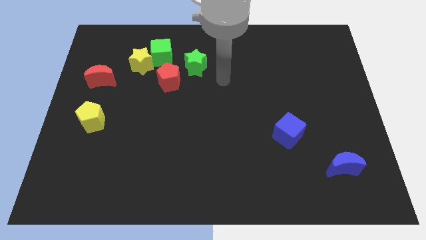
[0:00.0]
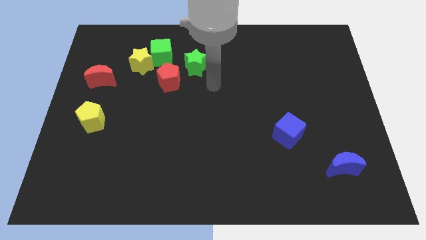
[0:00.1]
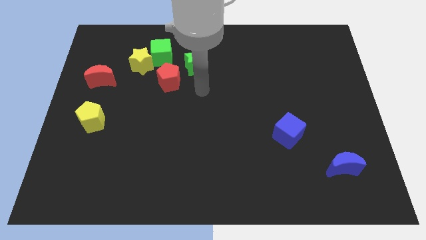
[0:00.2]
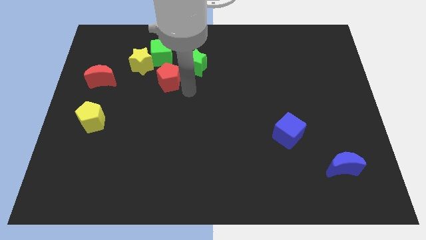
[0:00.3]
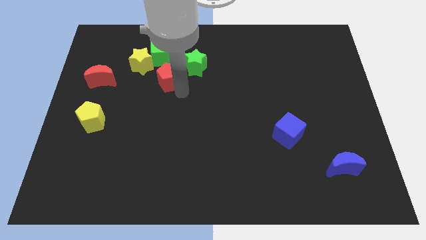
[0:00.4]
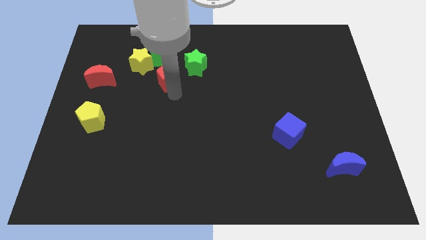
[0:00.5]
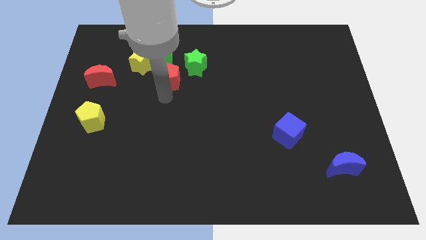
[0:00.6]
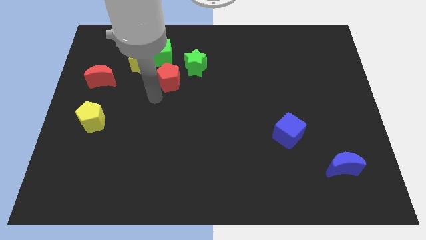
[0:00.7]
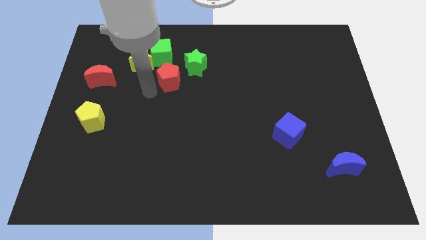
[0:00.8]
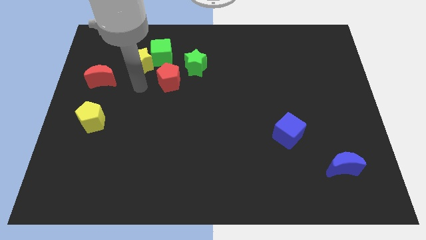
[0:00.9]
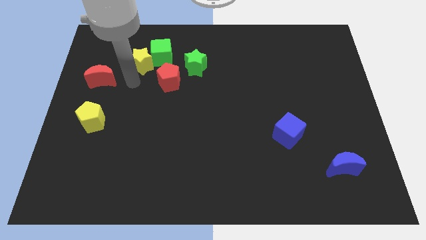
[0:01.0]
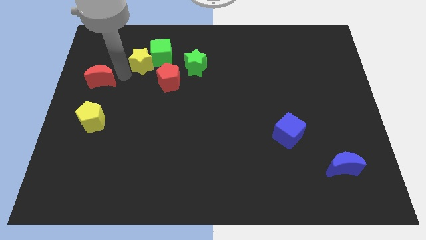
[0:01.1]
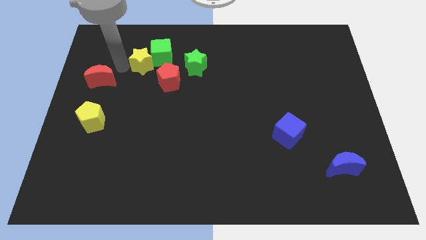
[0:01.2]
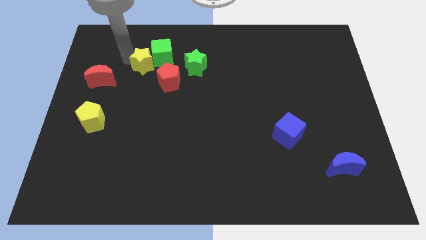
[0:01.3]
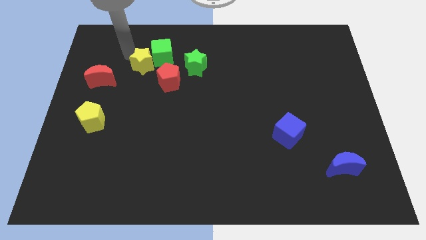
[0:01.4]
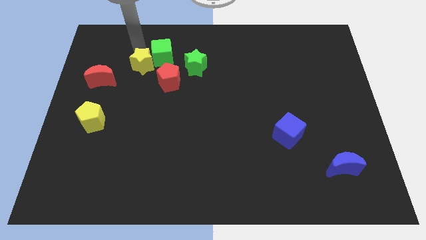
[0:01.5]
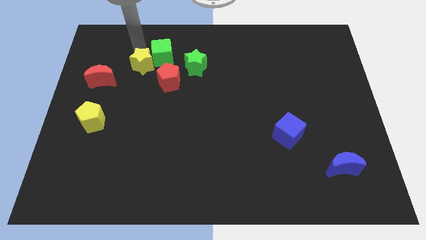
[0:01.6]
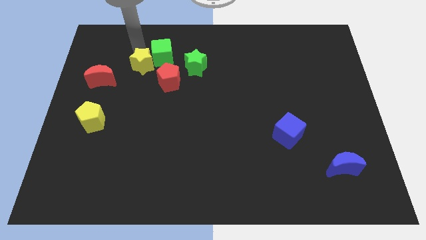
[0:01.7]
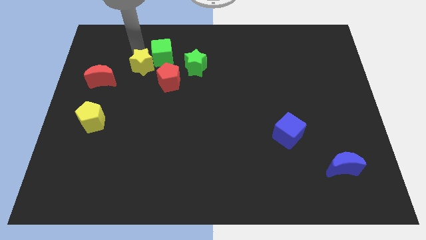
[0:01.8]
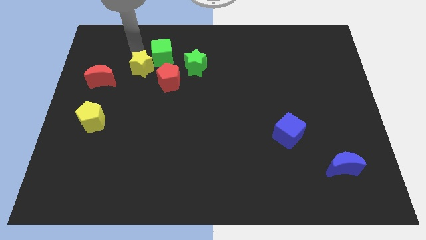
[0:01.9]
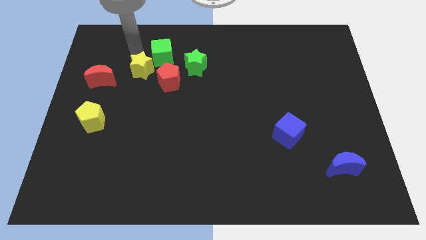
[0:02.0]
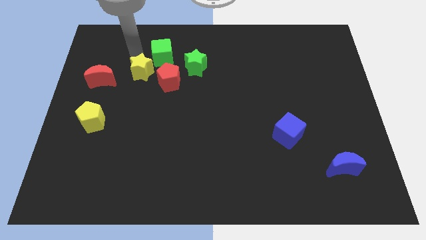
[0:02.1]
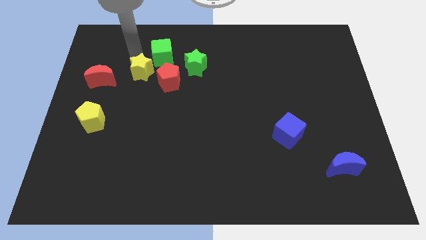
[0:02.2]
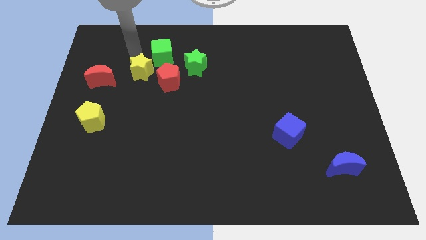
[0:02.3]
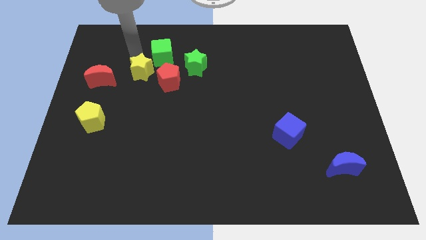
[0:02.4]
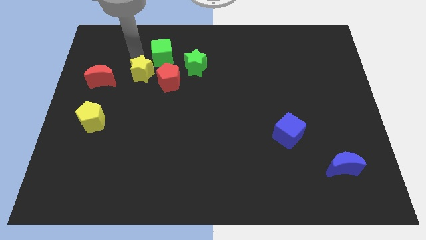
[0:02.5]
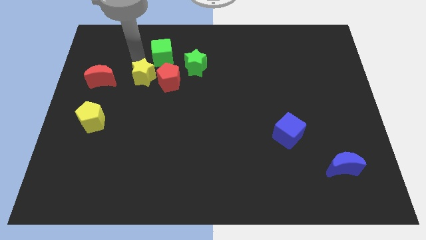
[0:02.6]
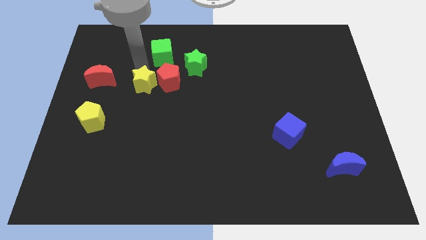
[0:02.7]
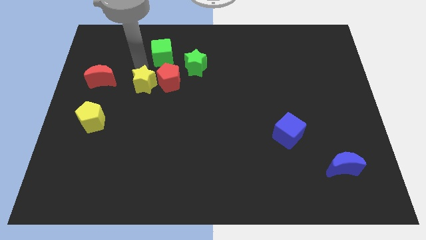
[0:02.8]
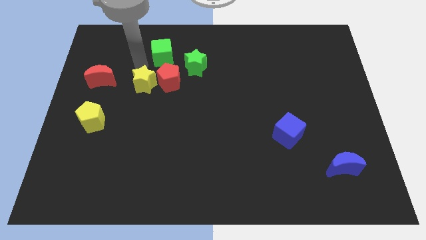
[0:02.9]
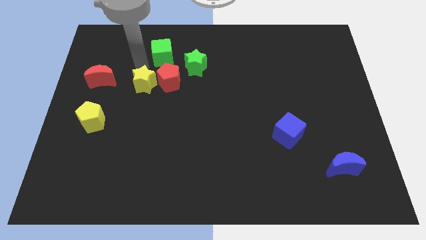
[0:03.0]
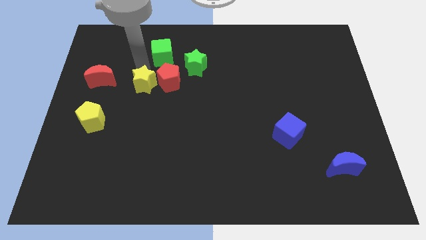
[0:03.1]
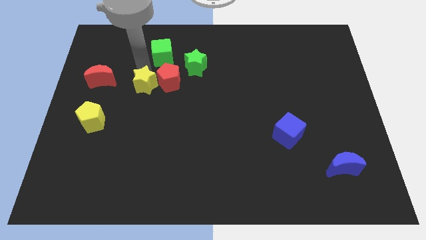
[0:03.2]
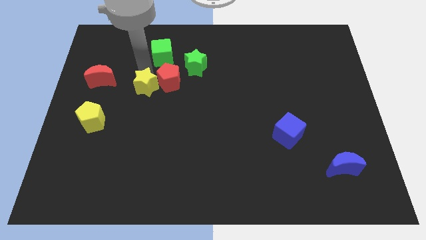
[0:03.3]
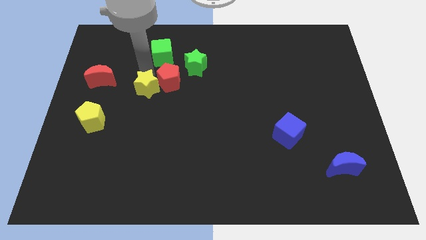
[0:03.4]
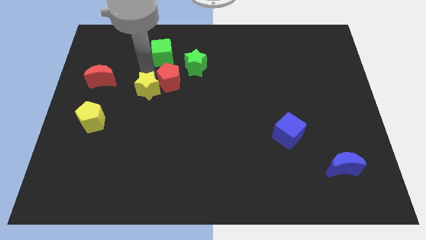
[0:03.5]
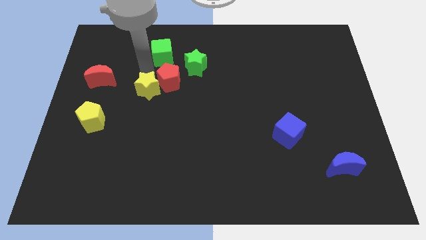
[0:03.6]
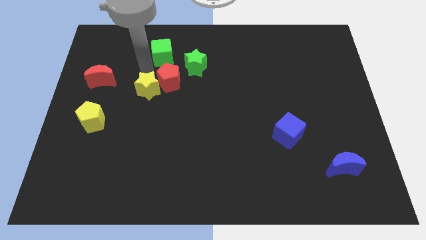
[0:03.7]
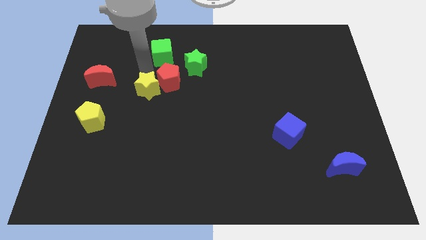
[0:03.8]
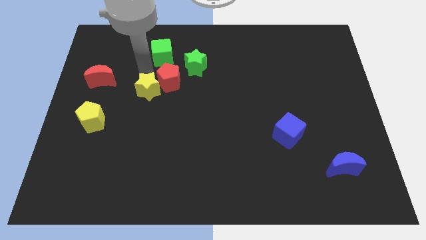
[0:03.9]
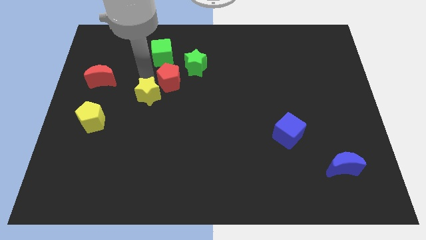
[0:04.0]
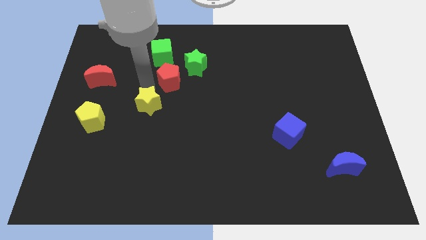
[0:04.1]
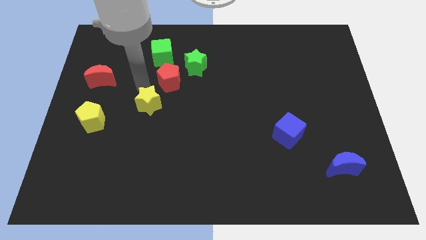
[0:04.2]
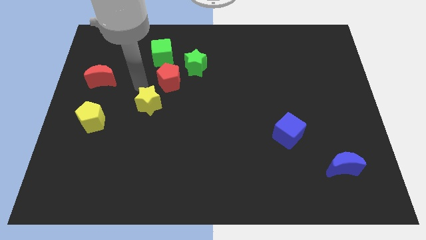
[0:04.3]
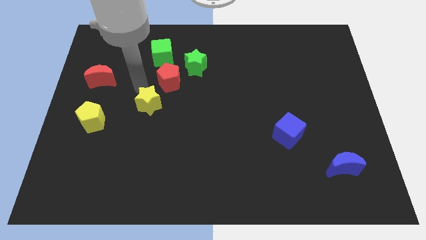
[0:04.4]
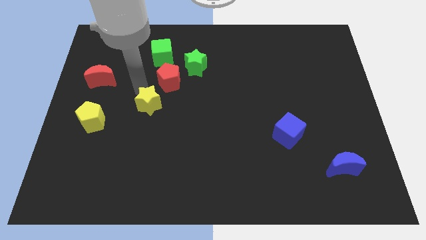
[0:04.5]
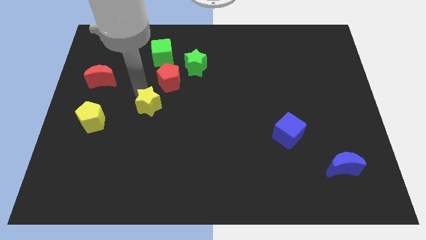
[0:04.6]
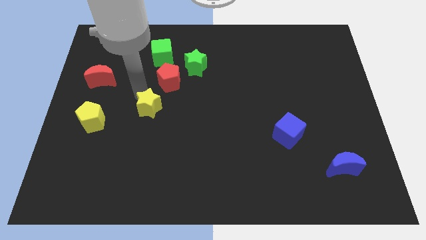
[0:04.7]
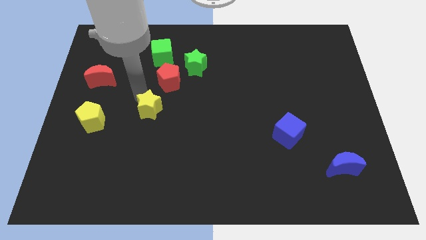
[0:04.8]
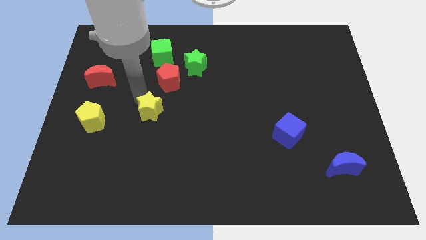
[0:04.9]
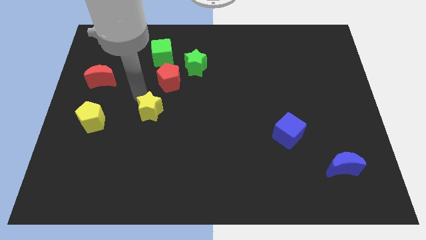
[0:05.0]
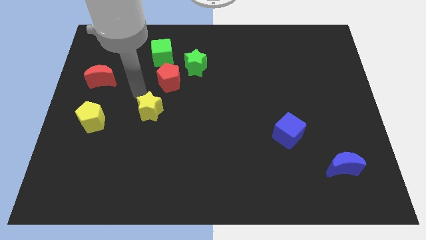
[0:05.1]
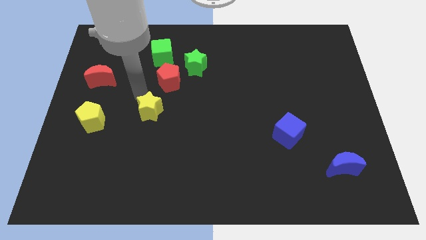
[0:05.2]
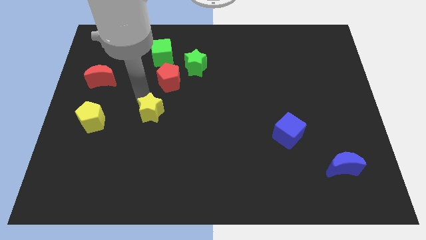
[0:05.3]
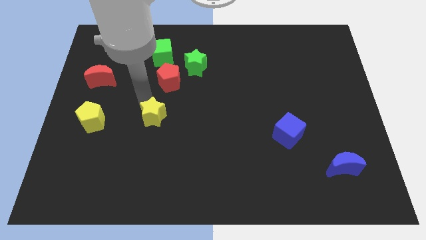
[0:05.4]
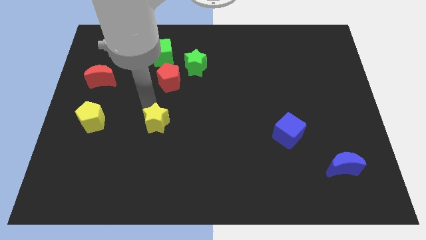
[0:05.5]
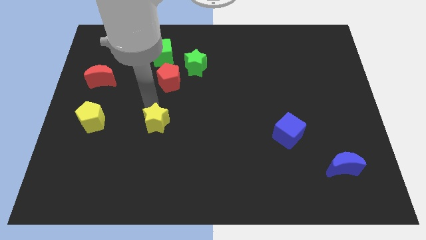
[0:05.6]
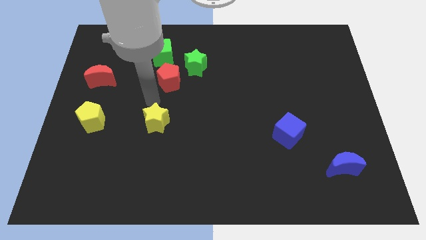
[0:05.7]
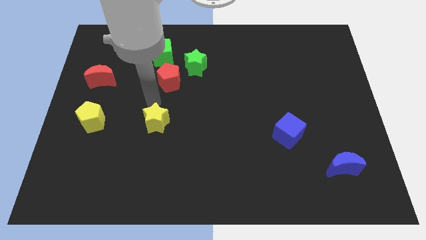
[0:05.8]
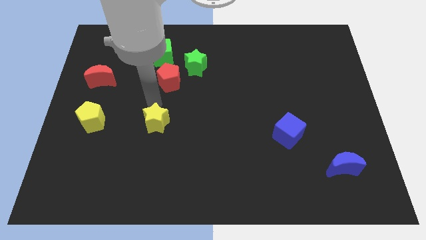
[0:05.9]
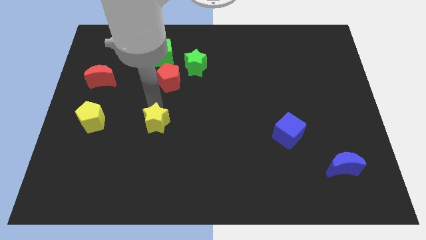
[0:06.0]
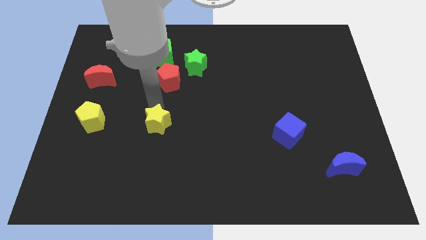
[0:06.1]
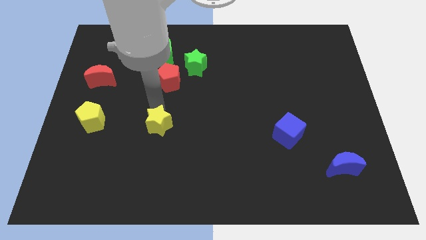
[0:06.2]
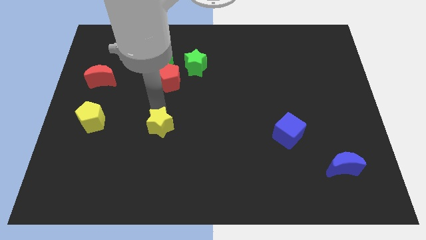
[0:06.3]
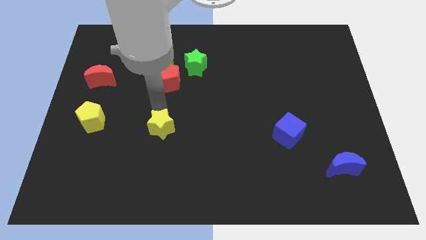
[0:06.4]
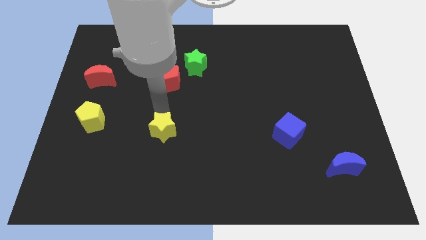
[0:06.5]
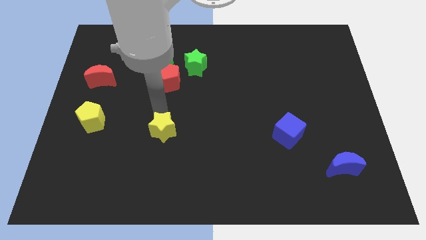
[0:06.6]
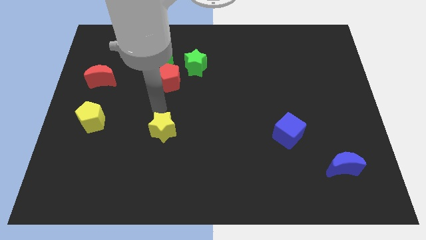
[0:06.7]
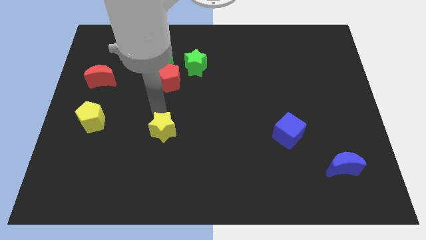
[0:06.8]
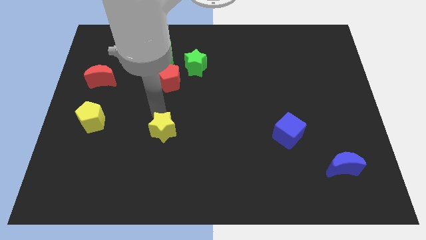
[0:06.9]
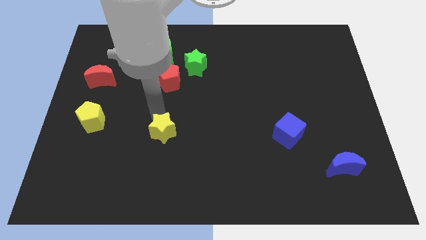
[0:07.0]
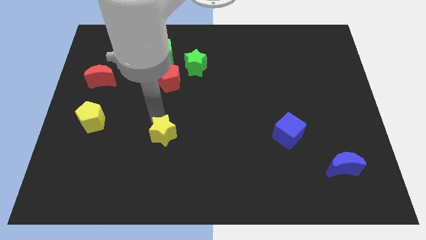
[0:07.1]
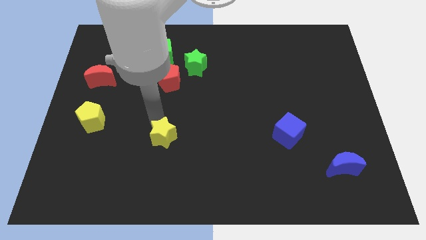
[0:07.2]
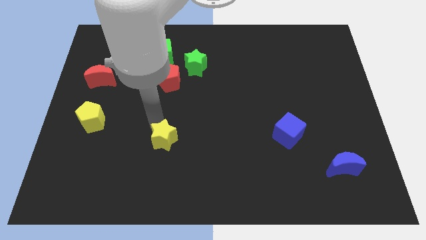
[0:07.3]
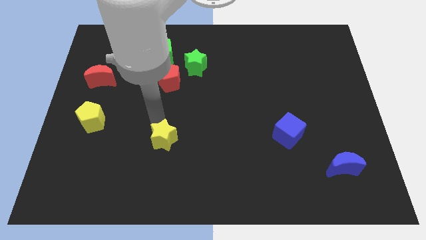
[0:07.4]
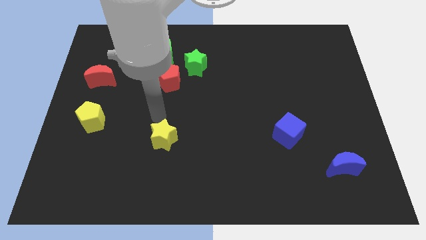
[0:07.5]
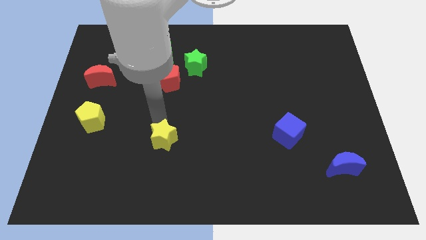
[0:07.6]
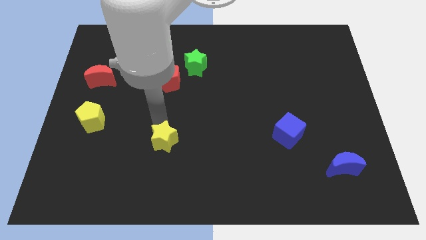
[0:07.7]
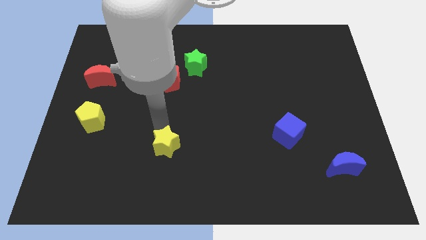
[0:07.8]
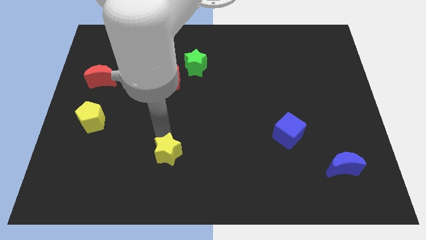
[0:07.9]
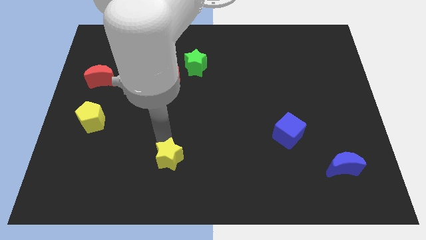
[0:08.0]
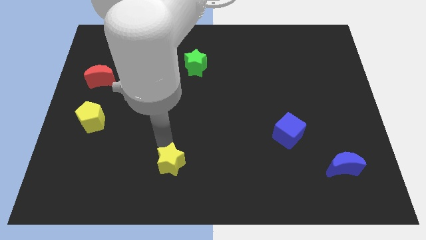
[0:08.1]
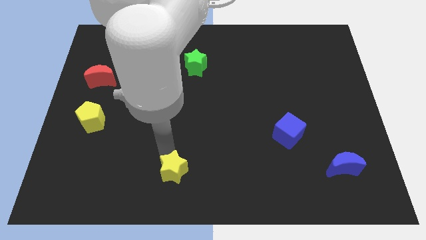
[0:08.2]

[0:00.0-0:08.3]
push the yellow star to the bottom
